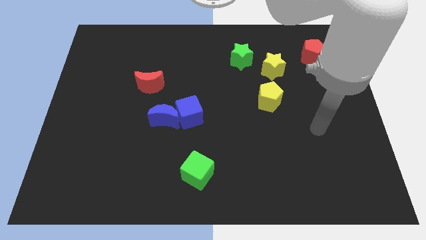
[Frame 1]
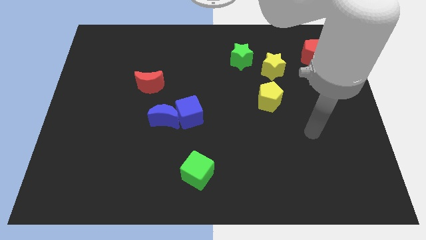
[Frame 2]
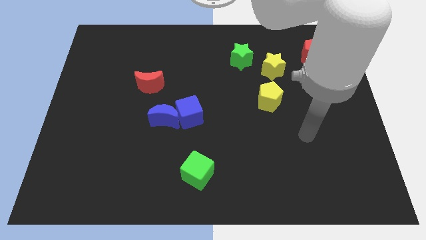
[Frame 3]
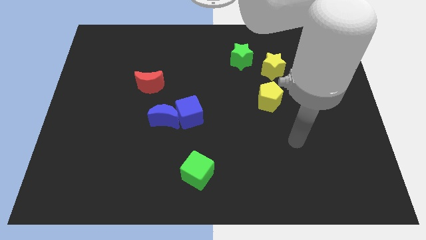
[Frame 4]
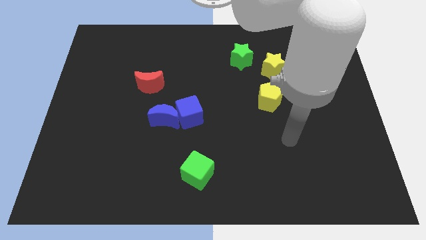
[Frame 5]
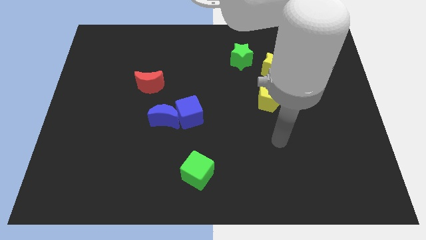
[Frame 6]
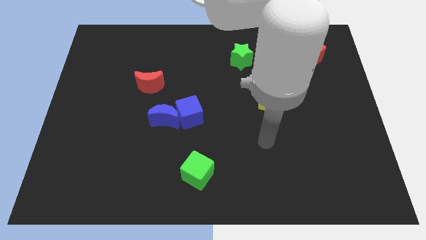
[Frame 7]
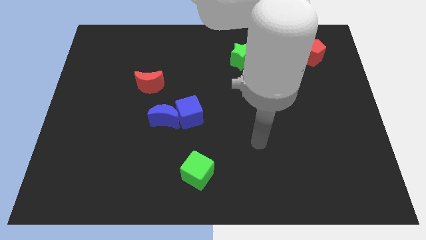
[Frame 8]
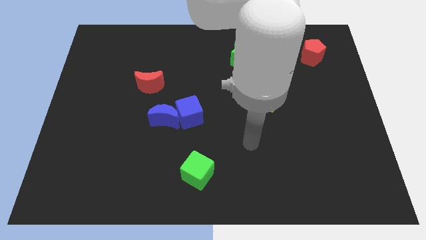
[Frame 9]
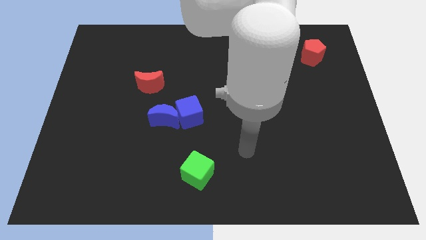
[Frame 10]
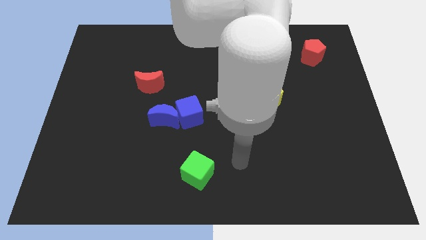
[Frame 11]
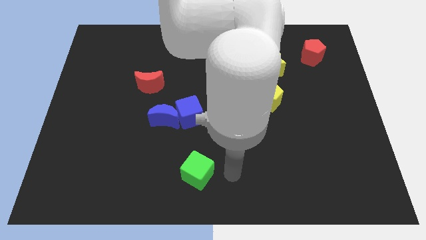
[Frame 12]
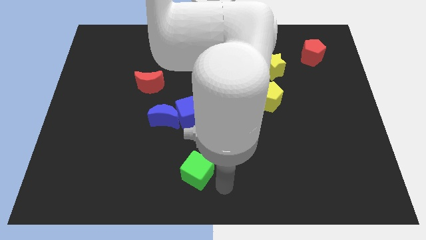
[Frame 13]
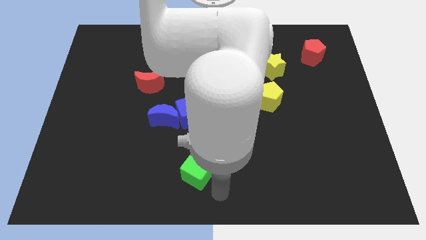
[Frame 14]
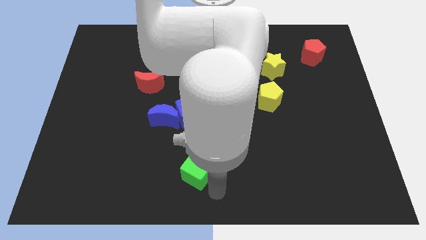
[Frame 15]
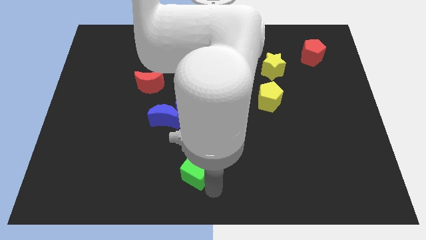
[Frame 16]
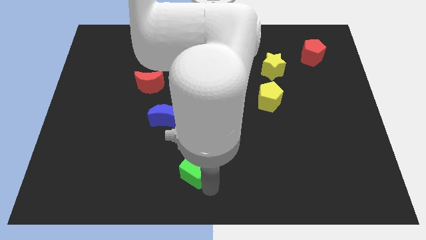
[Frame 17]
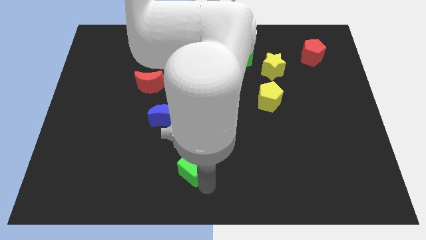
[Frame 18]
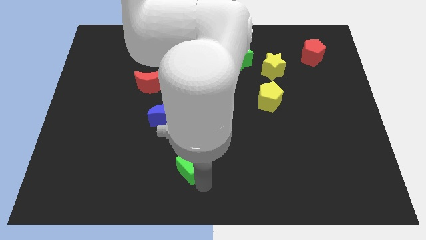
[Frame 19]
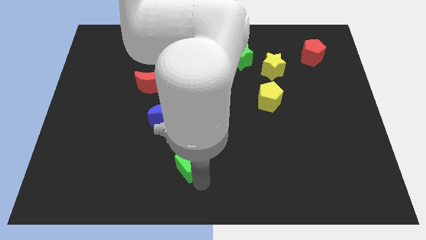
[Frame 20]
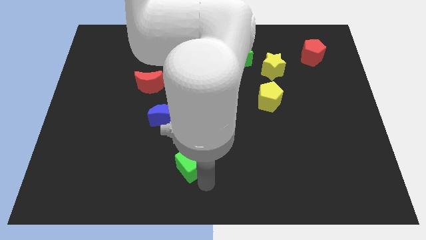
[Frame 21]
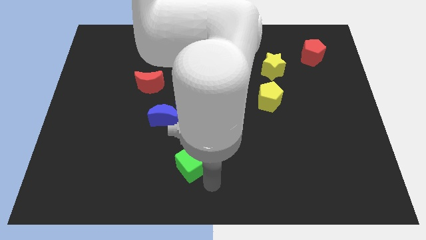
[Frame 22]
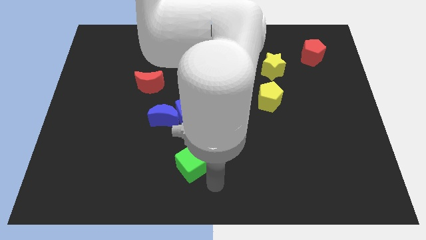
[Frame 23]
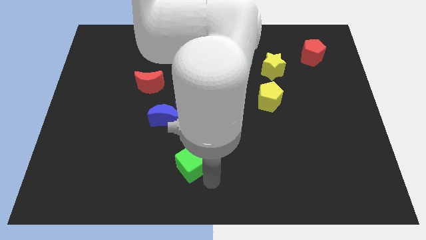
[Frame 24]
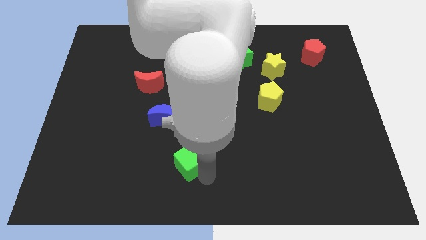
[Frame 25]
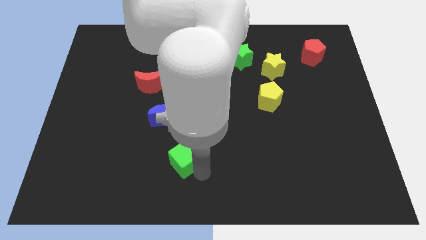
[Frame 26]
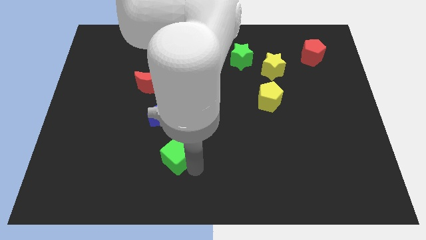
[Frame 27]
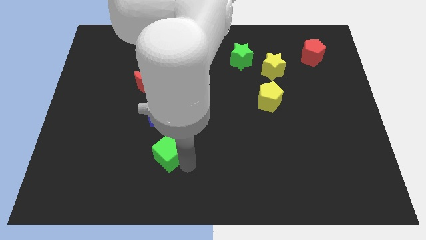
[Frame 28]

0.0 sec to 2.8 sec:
slightly push the green cube up and left diagonally

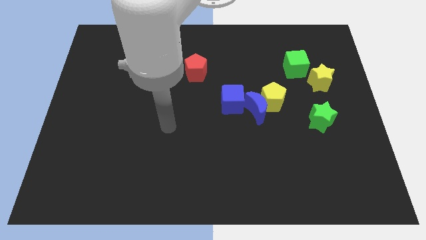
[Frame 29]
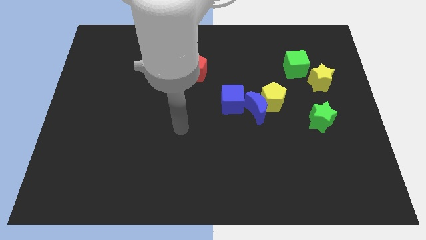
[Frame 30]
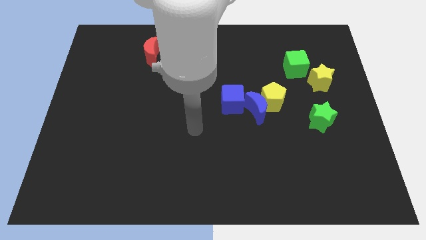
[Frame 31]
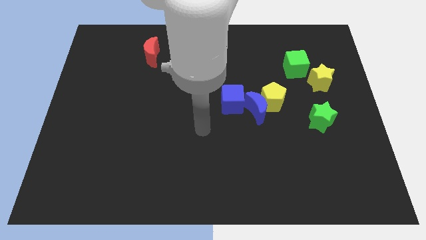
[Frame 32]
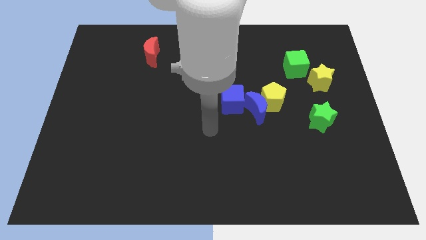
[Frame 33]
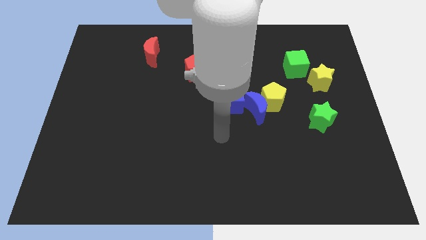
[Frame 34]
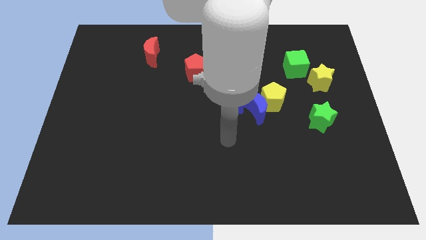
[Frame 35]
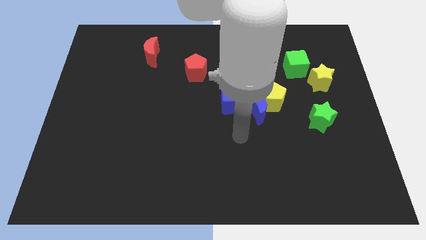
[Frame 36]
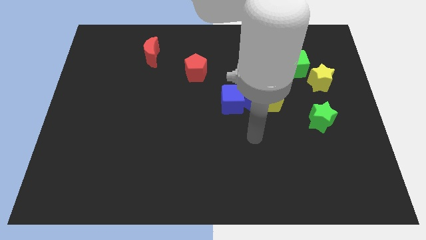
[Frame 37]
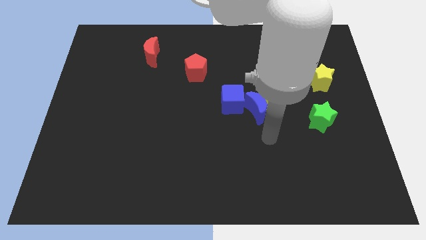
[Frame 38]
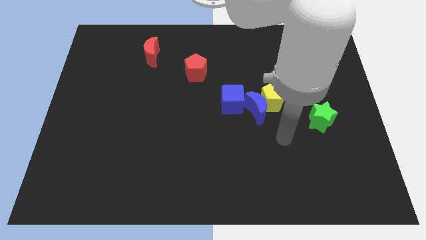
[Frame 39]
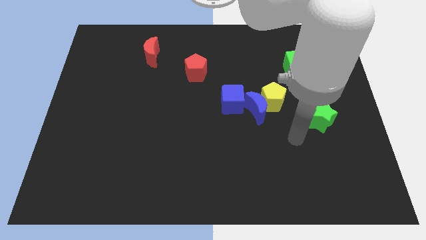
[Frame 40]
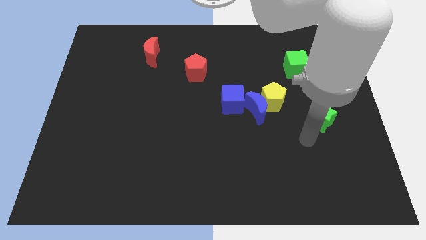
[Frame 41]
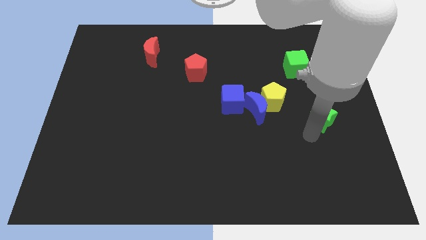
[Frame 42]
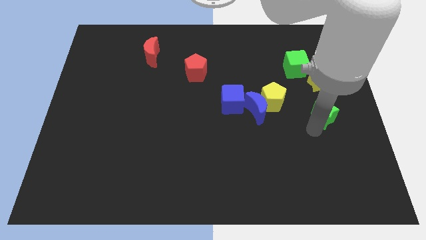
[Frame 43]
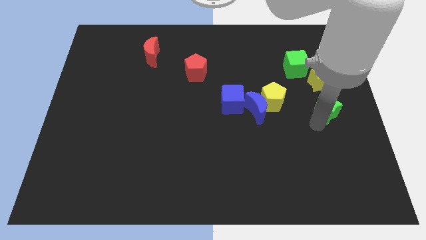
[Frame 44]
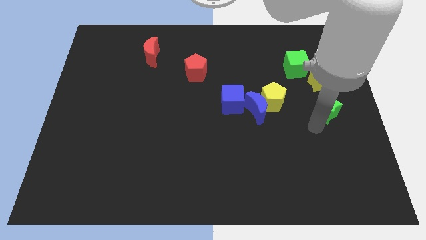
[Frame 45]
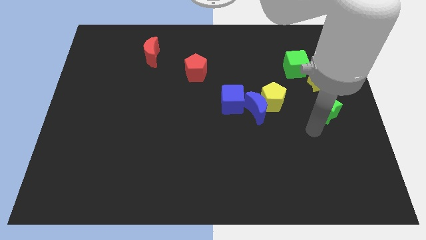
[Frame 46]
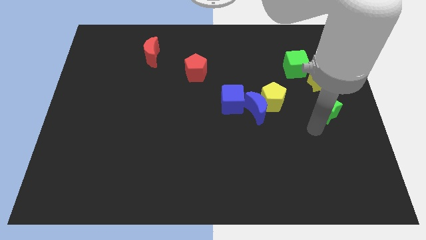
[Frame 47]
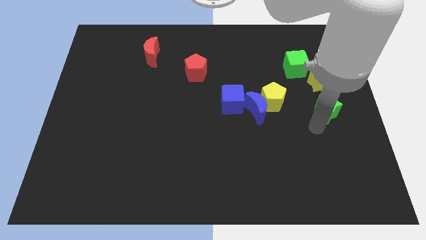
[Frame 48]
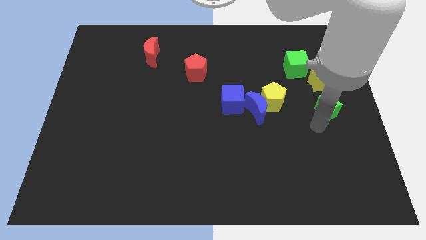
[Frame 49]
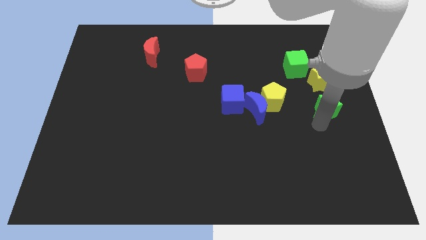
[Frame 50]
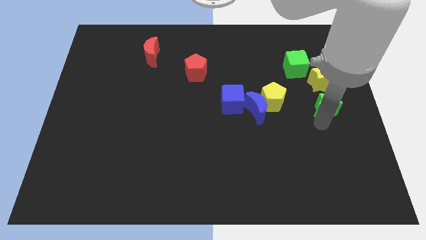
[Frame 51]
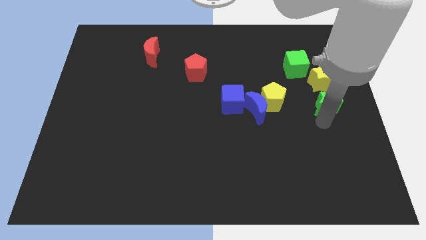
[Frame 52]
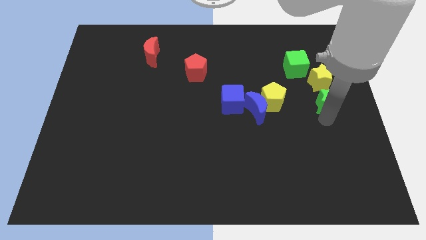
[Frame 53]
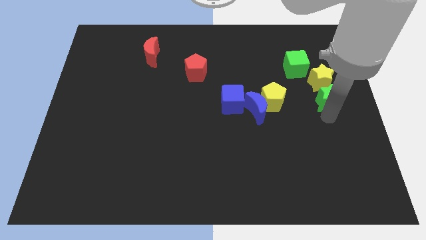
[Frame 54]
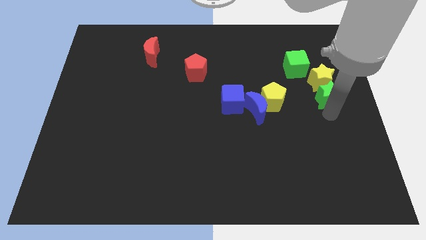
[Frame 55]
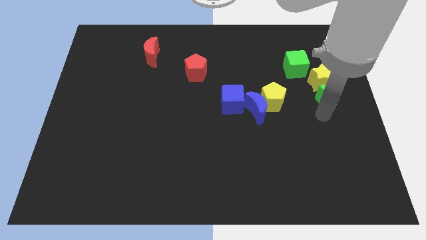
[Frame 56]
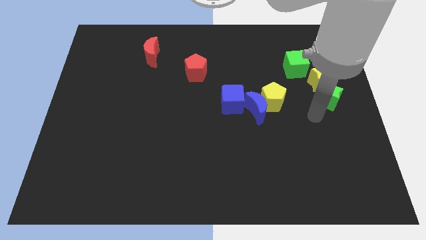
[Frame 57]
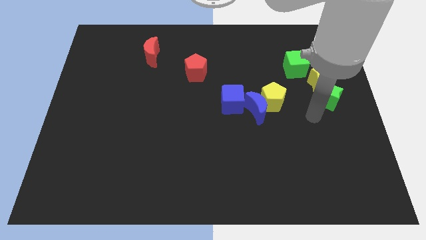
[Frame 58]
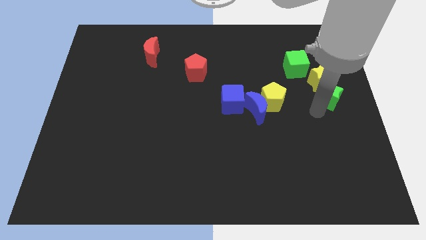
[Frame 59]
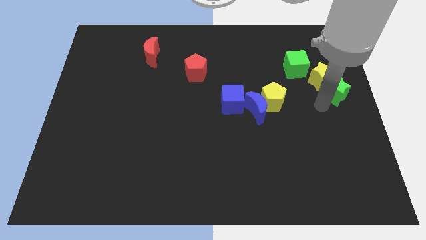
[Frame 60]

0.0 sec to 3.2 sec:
slide the green star somewhat up

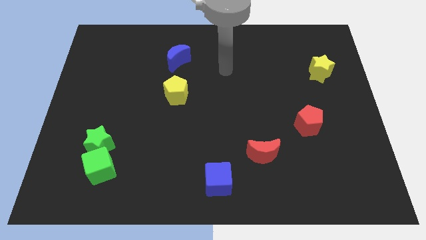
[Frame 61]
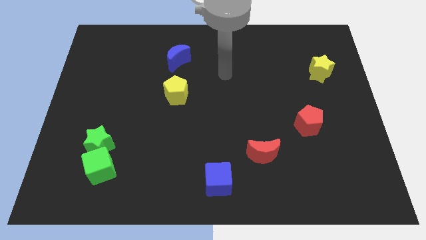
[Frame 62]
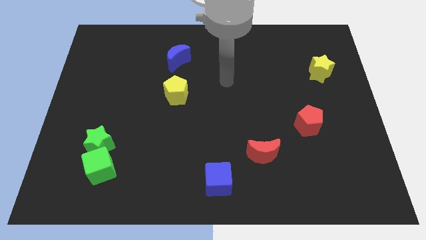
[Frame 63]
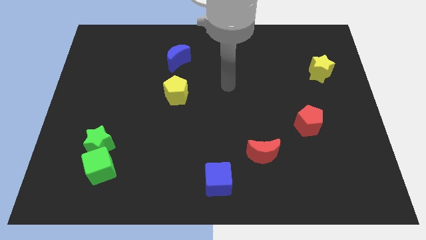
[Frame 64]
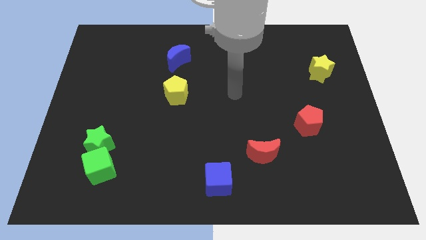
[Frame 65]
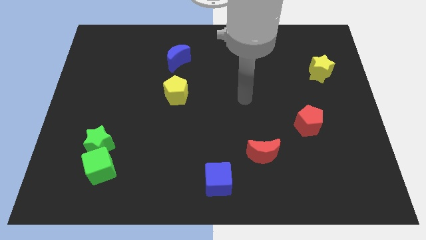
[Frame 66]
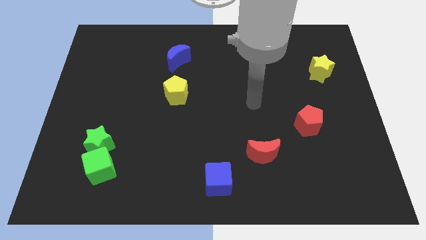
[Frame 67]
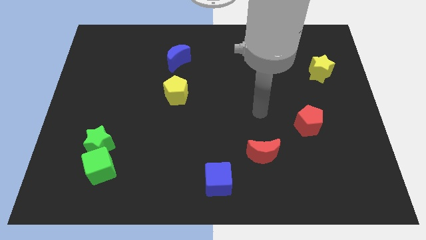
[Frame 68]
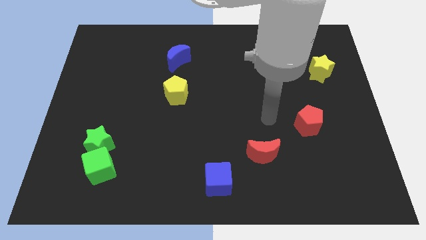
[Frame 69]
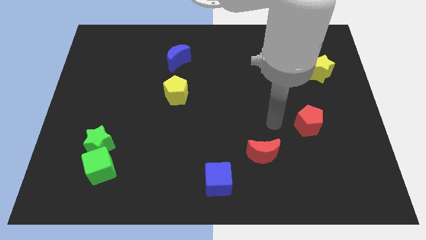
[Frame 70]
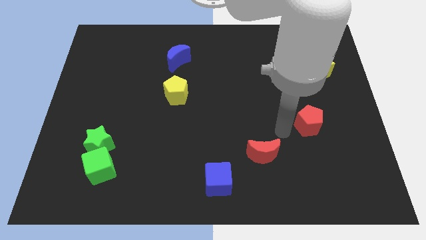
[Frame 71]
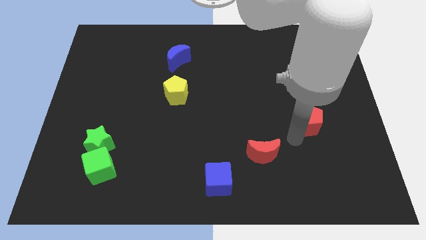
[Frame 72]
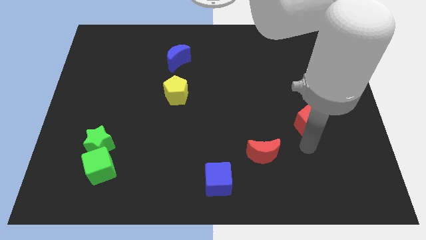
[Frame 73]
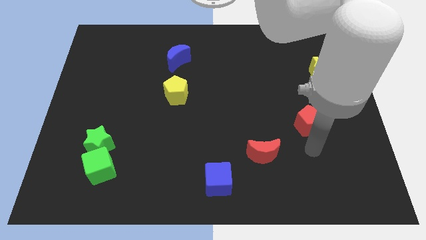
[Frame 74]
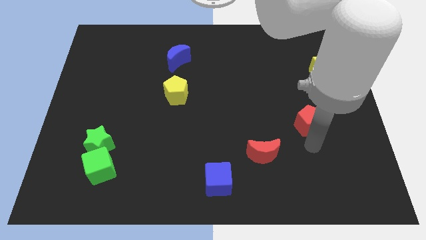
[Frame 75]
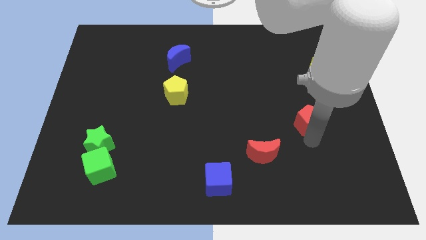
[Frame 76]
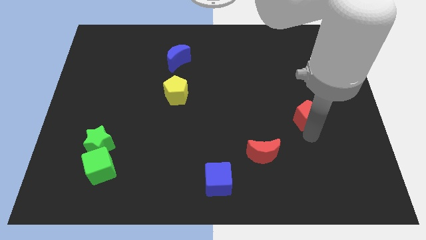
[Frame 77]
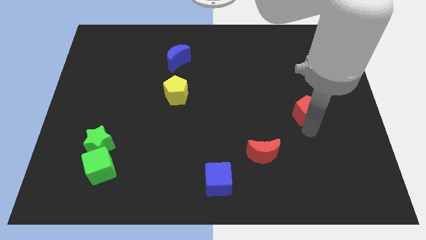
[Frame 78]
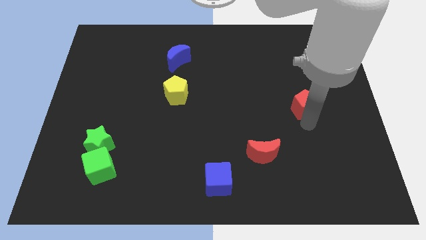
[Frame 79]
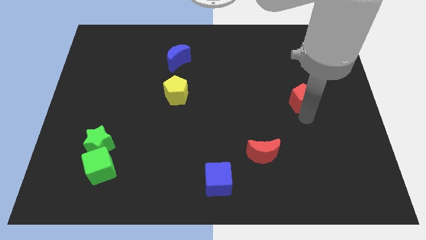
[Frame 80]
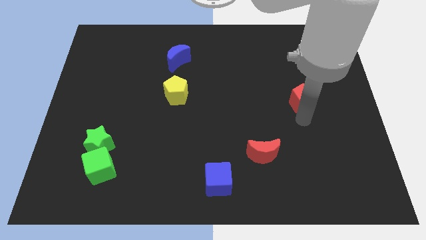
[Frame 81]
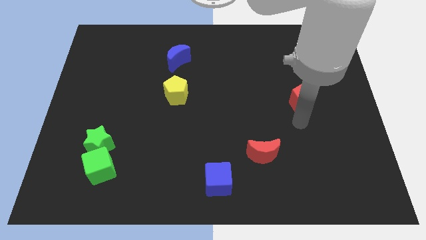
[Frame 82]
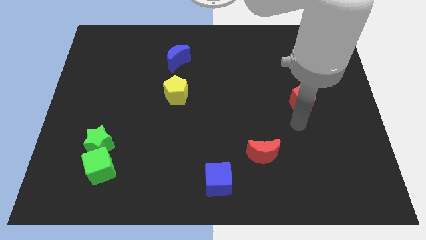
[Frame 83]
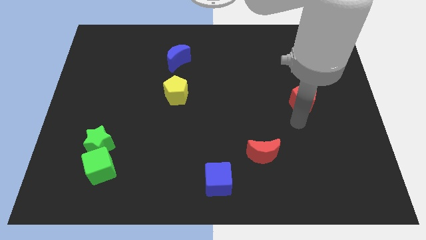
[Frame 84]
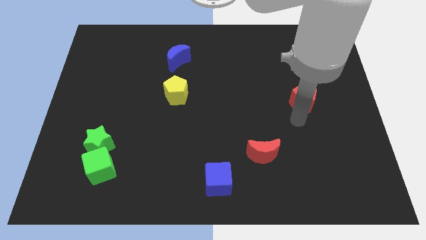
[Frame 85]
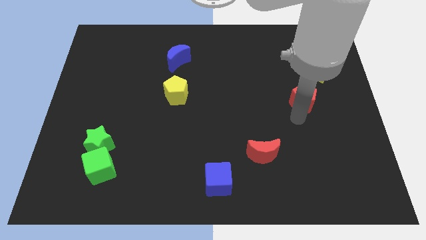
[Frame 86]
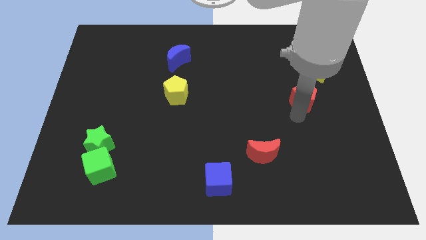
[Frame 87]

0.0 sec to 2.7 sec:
push the red pentagon a bit upwards
